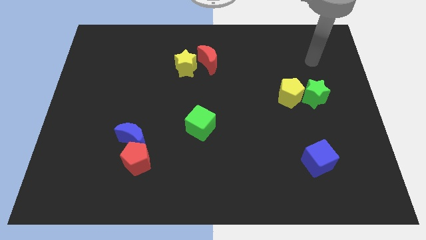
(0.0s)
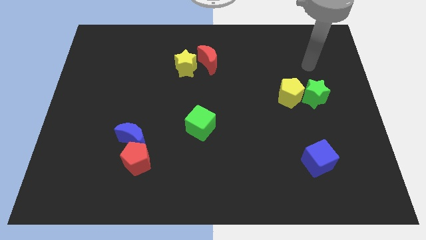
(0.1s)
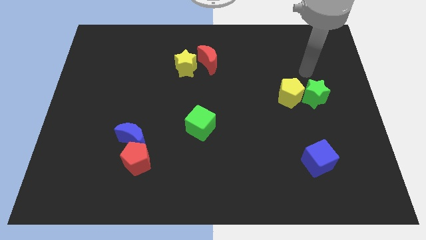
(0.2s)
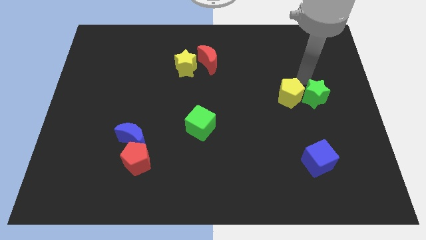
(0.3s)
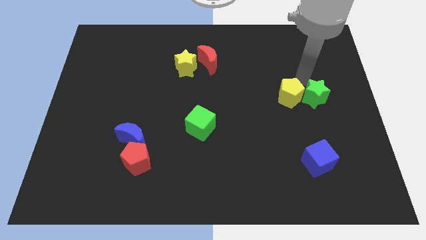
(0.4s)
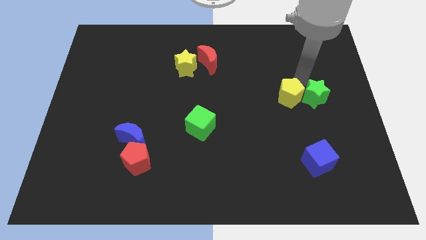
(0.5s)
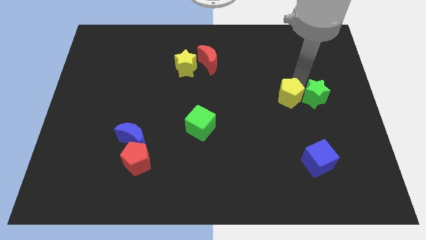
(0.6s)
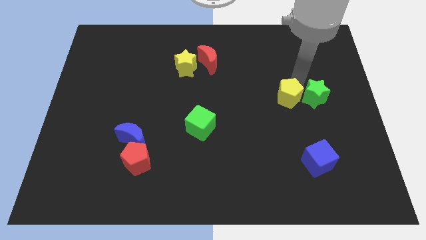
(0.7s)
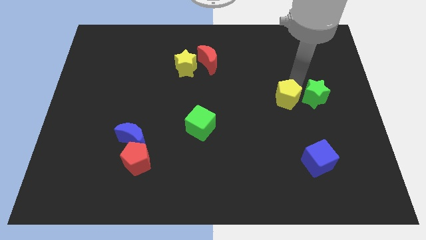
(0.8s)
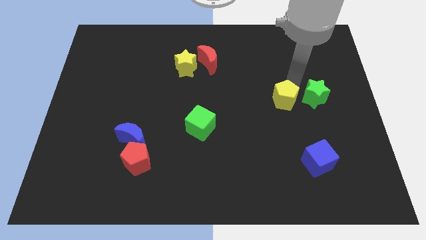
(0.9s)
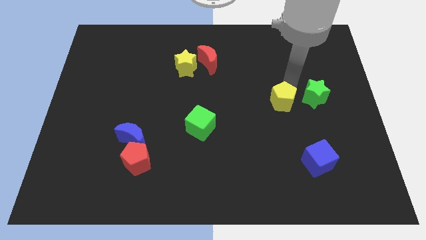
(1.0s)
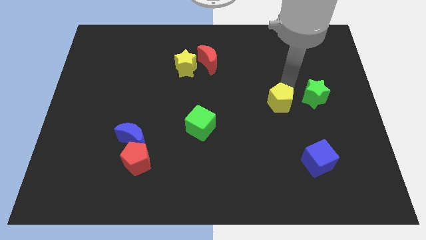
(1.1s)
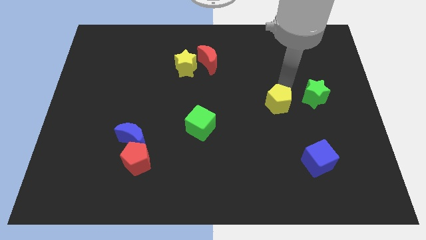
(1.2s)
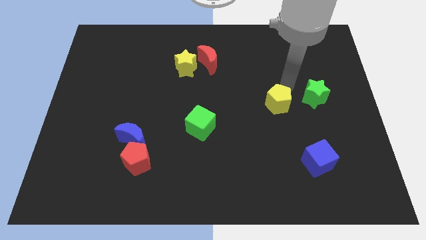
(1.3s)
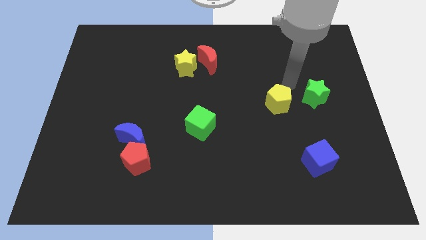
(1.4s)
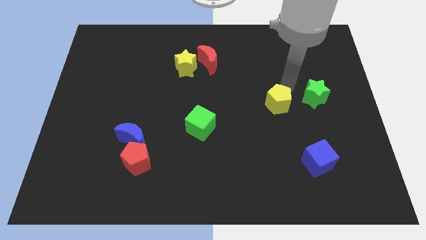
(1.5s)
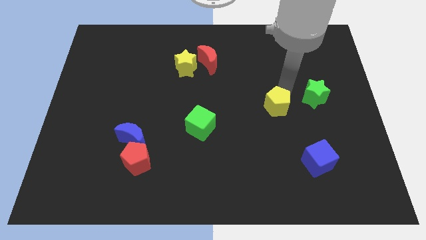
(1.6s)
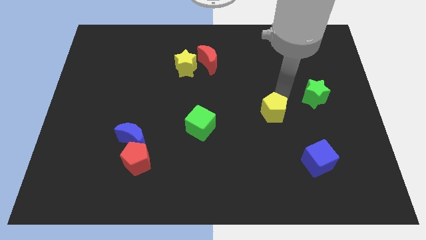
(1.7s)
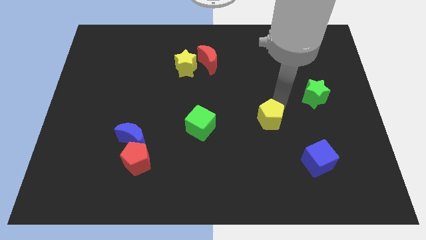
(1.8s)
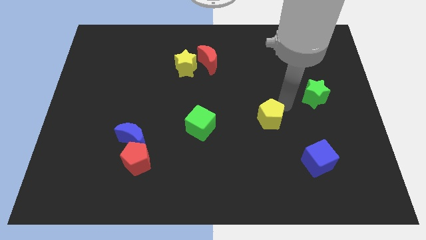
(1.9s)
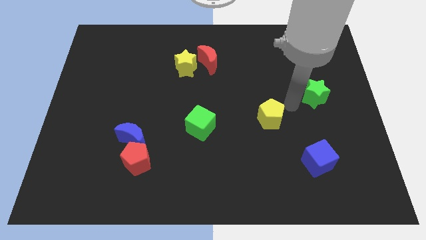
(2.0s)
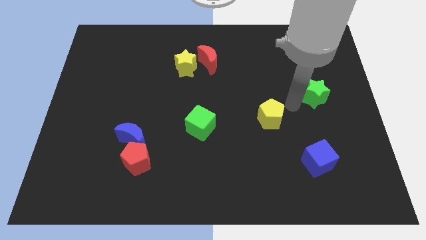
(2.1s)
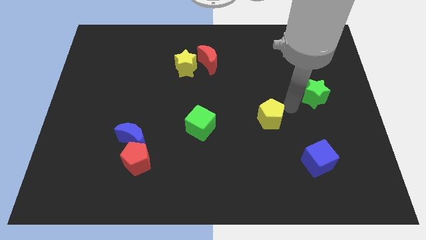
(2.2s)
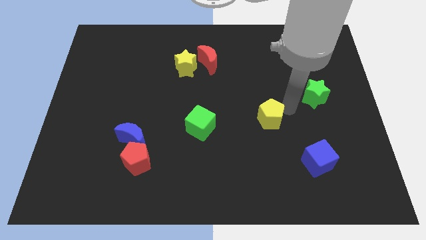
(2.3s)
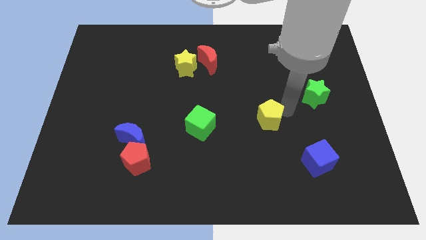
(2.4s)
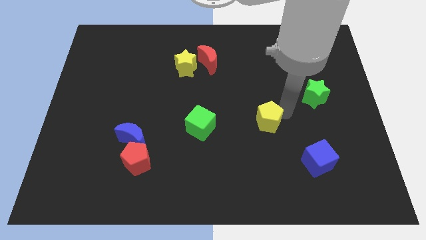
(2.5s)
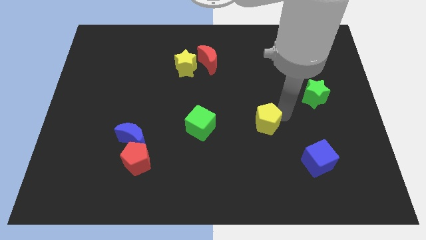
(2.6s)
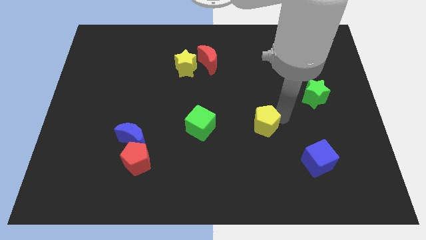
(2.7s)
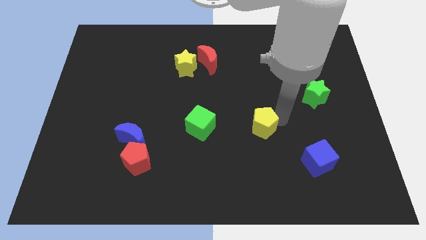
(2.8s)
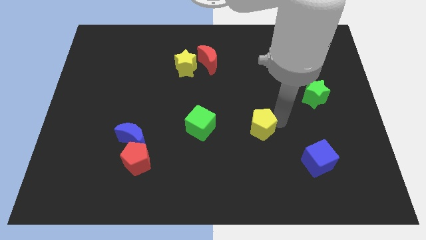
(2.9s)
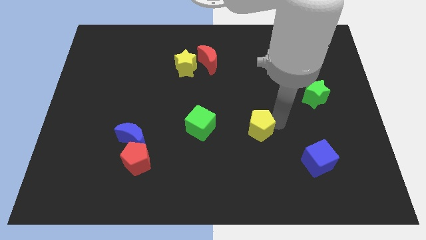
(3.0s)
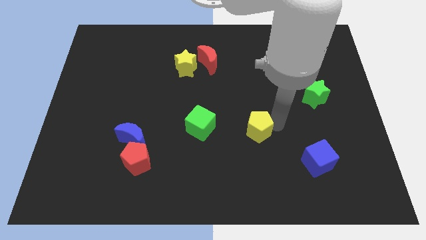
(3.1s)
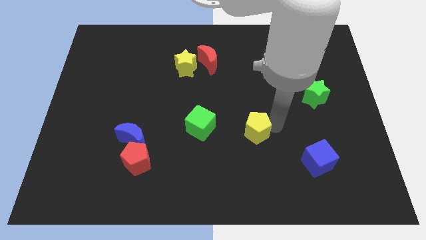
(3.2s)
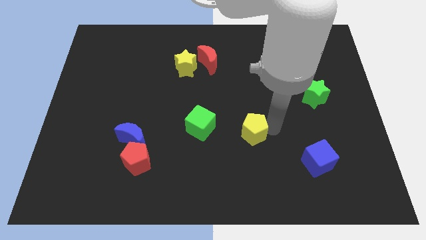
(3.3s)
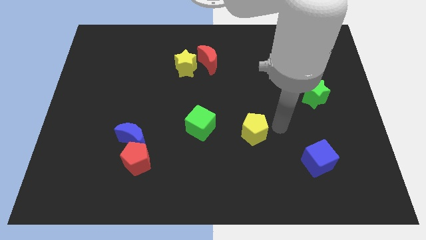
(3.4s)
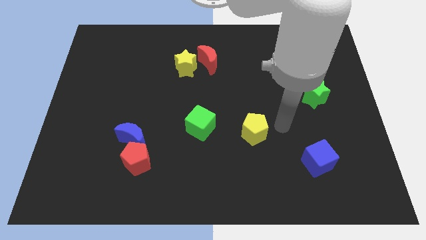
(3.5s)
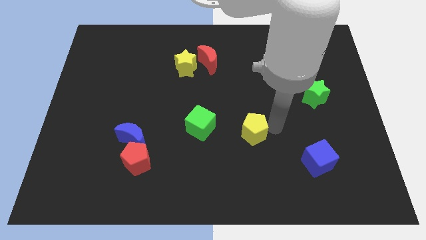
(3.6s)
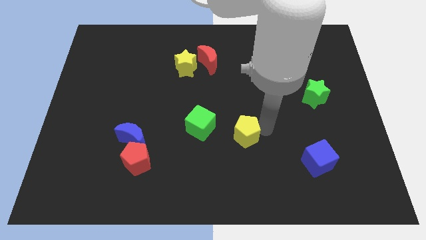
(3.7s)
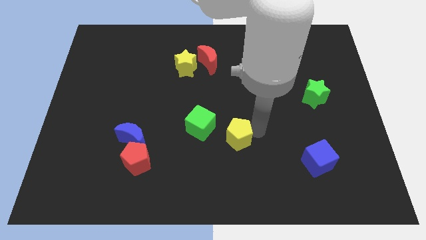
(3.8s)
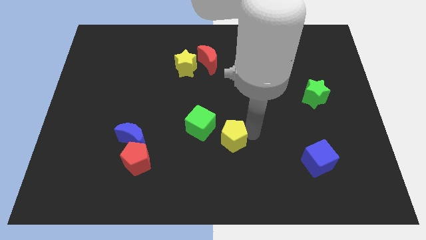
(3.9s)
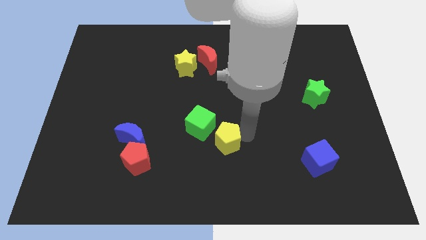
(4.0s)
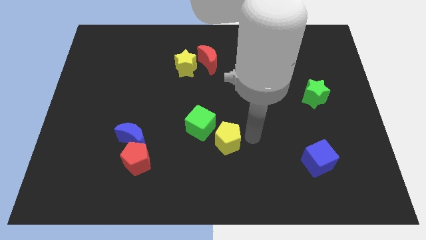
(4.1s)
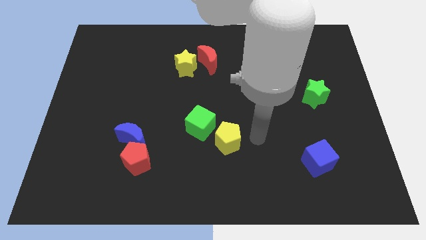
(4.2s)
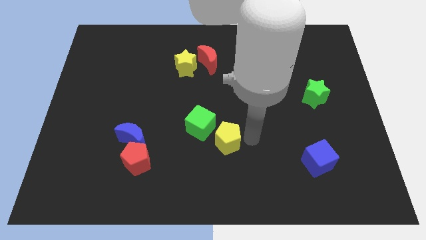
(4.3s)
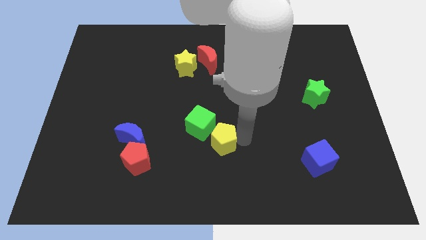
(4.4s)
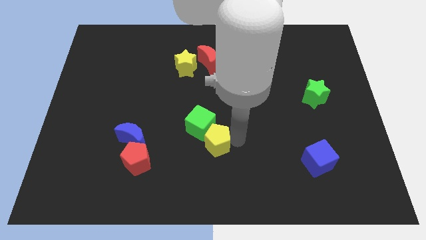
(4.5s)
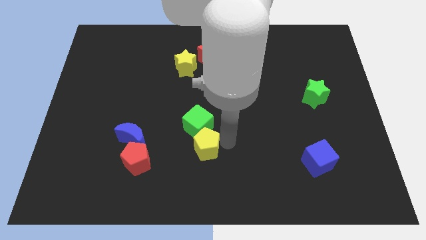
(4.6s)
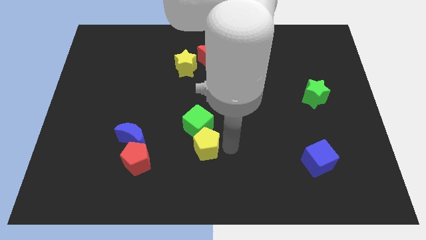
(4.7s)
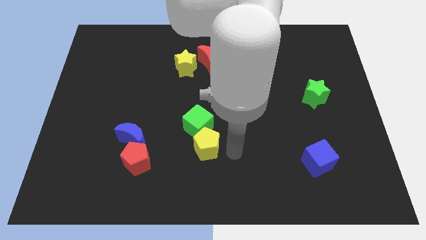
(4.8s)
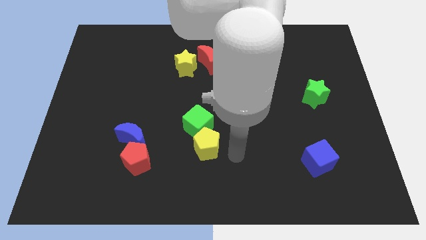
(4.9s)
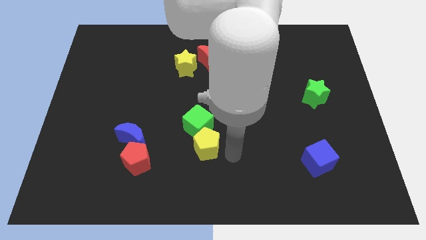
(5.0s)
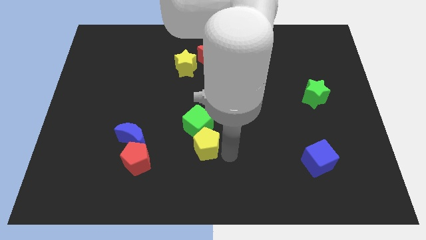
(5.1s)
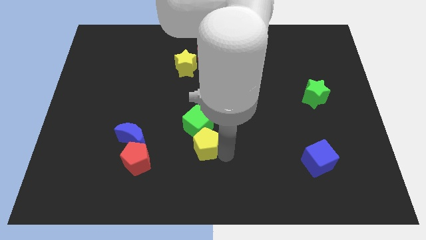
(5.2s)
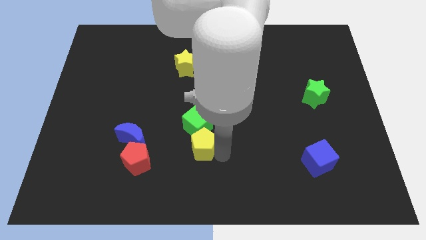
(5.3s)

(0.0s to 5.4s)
move the yellow pentagon just right of the blue moon

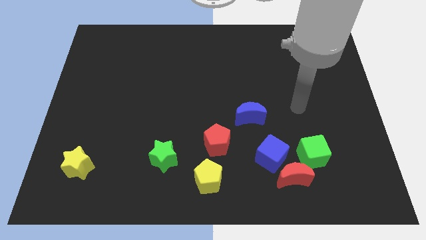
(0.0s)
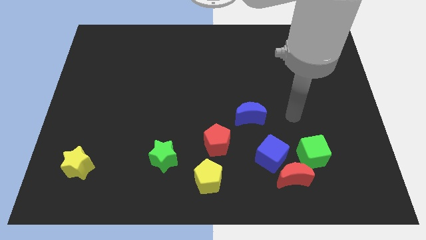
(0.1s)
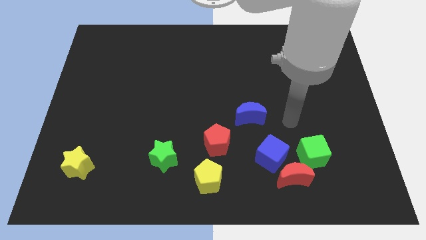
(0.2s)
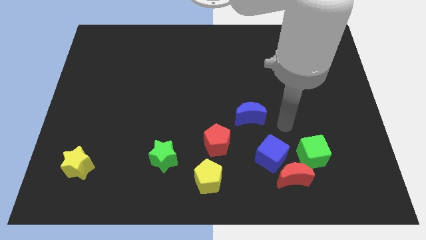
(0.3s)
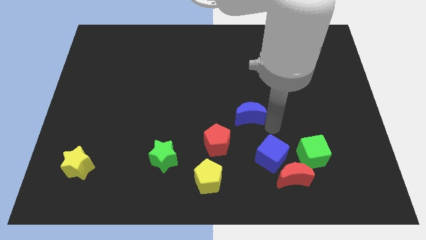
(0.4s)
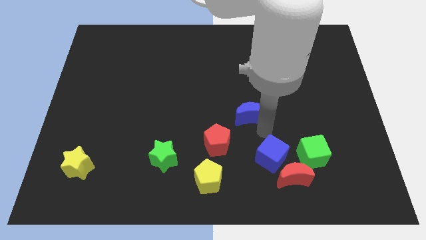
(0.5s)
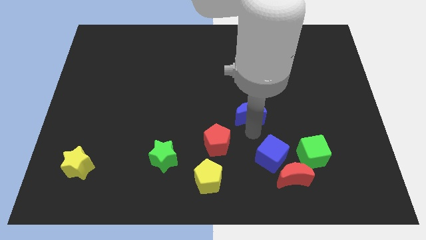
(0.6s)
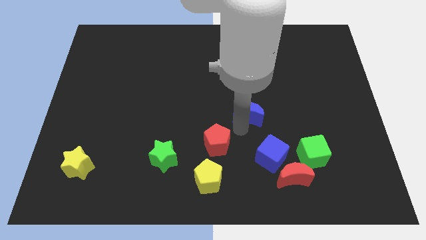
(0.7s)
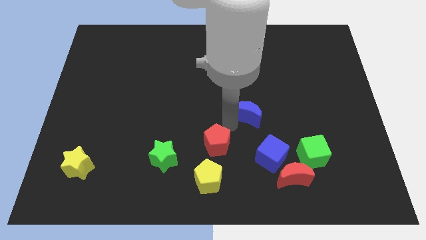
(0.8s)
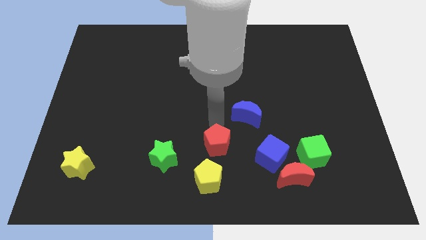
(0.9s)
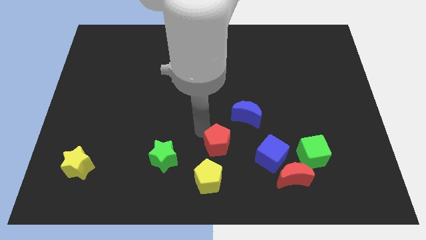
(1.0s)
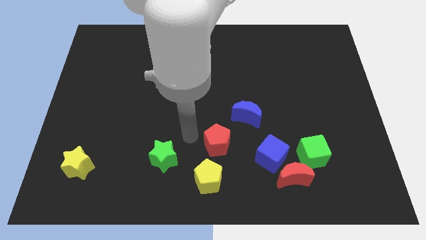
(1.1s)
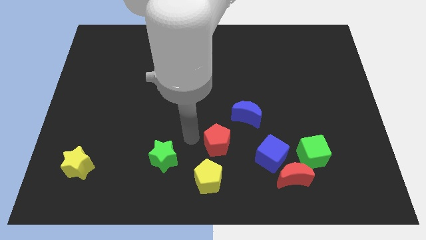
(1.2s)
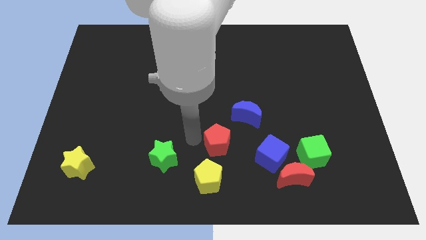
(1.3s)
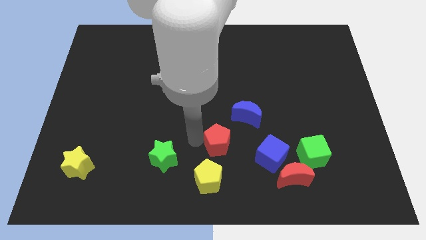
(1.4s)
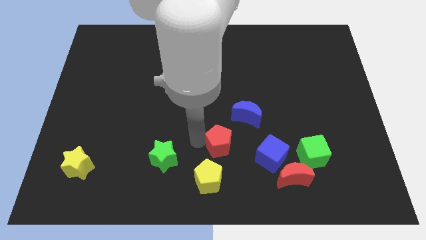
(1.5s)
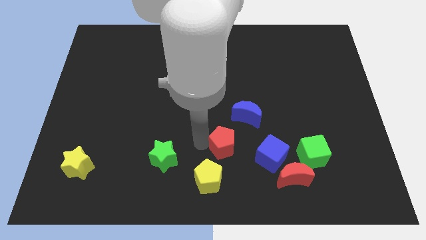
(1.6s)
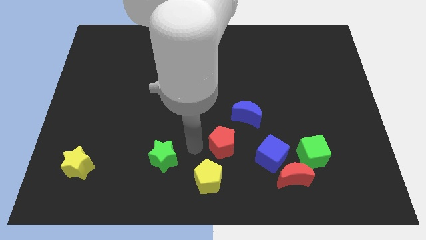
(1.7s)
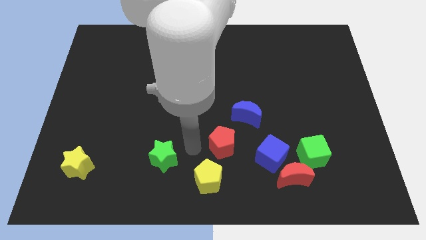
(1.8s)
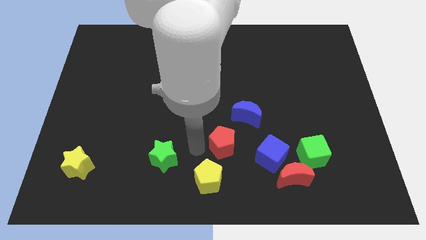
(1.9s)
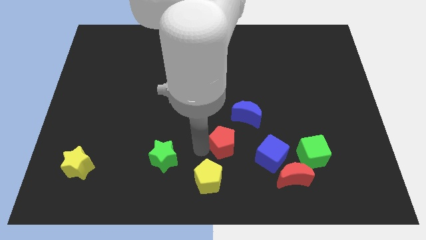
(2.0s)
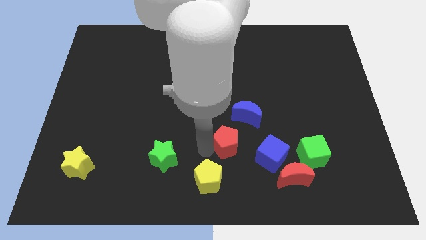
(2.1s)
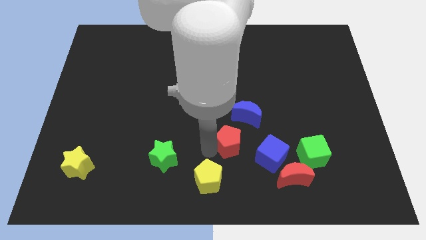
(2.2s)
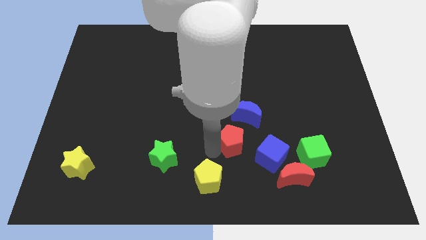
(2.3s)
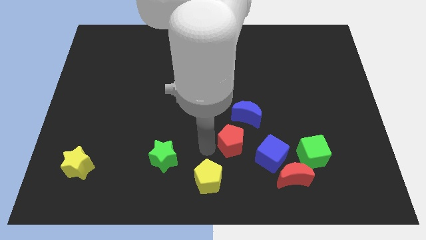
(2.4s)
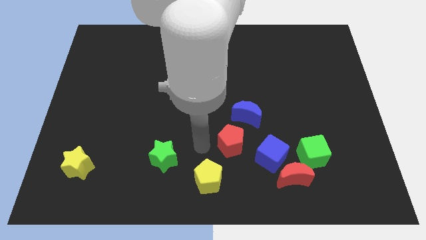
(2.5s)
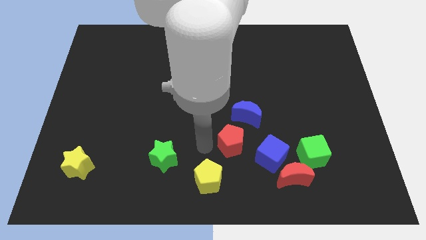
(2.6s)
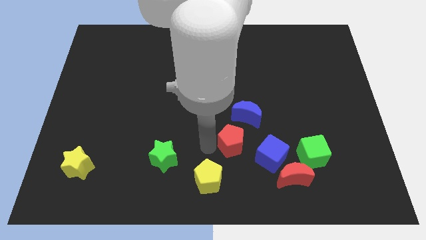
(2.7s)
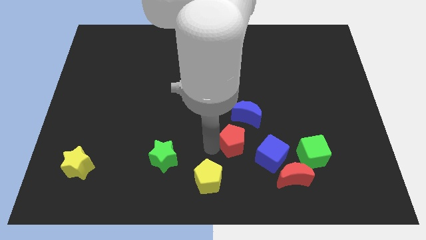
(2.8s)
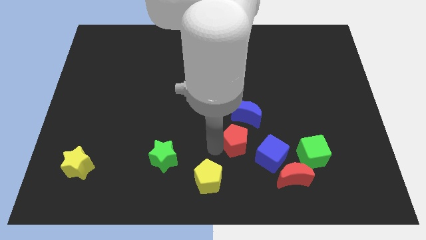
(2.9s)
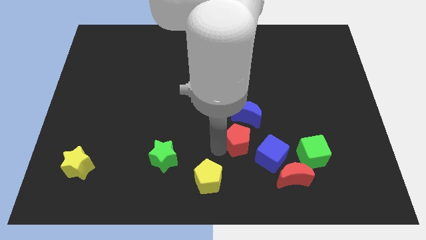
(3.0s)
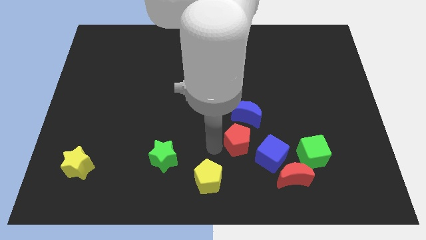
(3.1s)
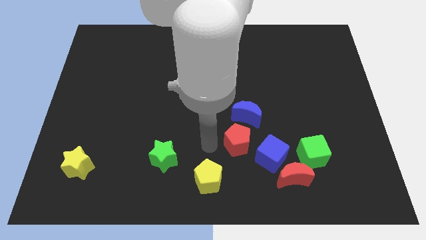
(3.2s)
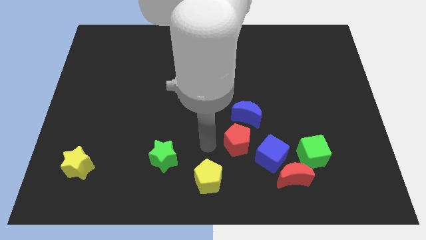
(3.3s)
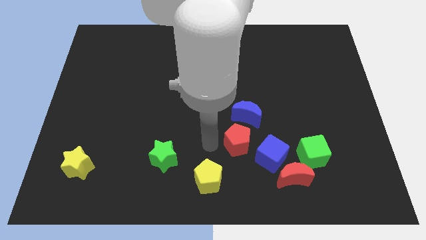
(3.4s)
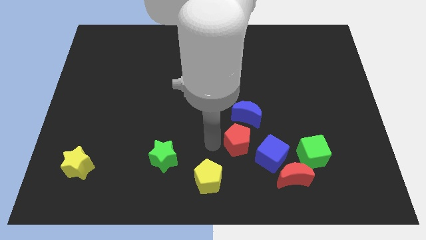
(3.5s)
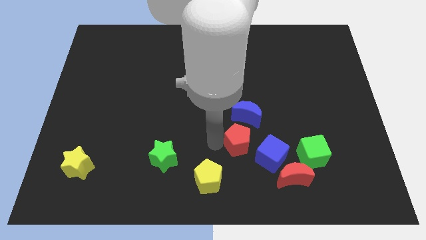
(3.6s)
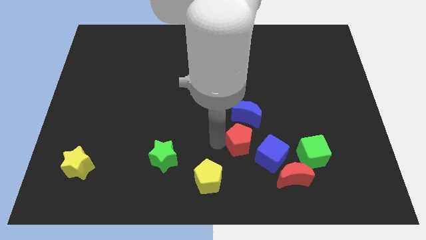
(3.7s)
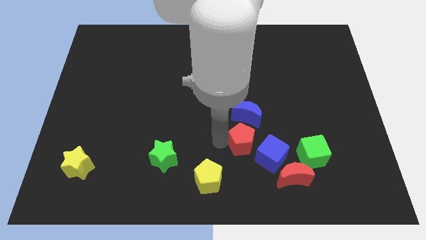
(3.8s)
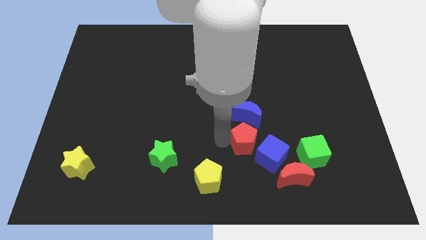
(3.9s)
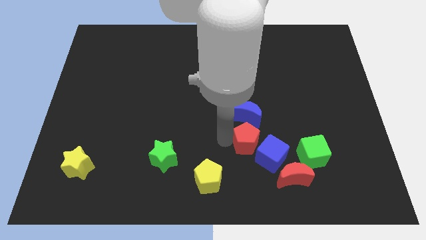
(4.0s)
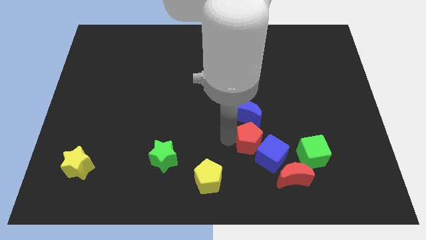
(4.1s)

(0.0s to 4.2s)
push the red pentagon above the blue cube
